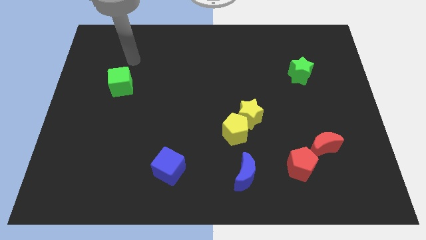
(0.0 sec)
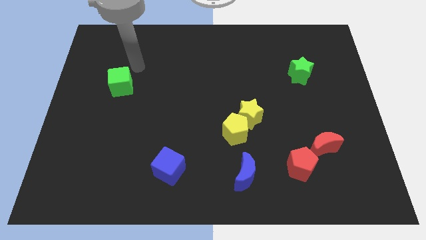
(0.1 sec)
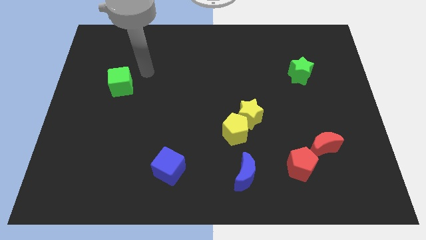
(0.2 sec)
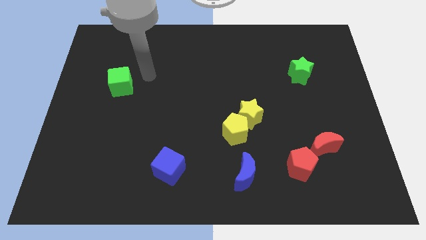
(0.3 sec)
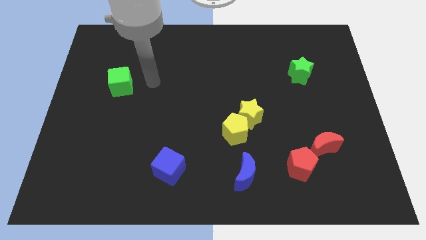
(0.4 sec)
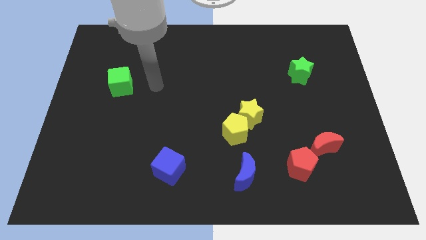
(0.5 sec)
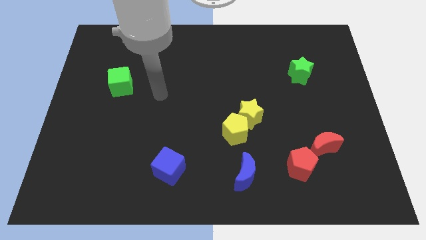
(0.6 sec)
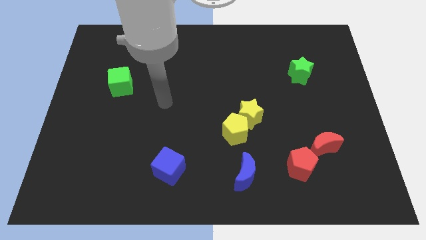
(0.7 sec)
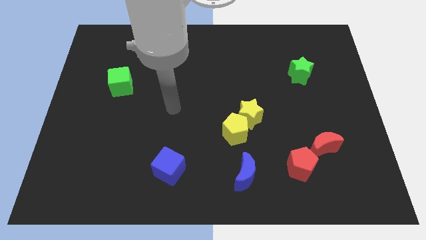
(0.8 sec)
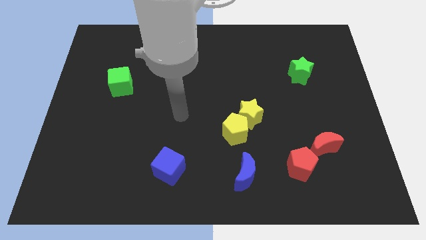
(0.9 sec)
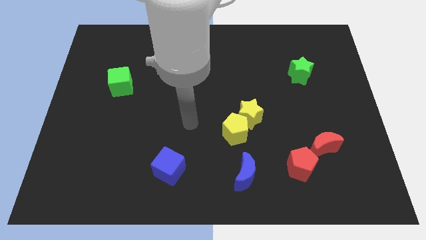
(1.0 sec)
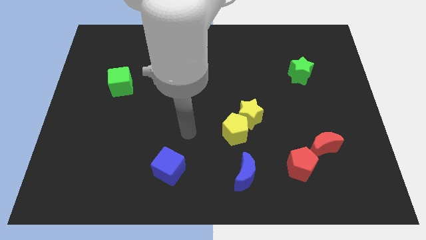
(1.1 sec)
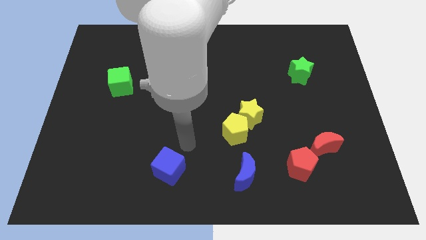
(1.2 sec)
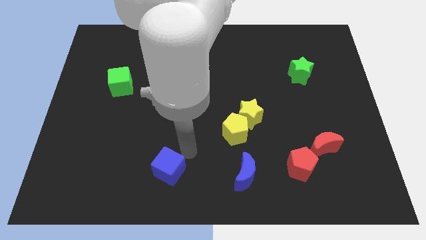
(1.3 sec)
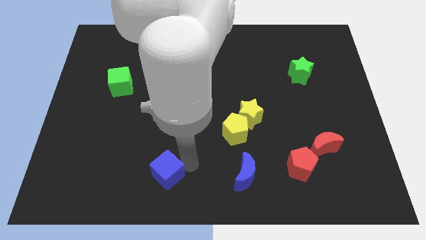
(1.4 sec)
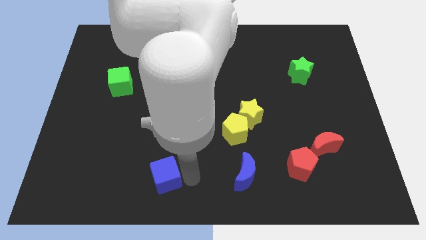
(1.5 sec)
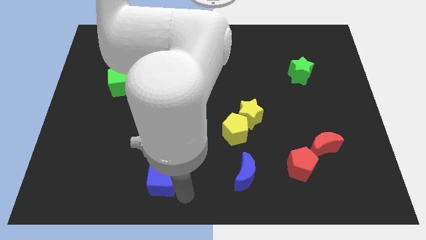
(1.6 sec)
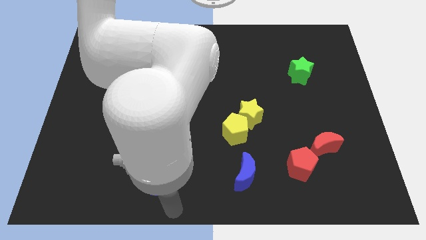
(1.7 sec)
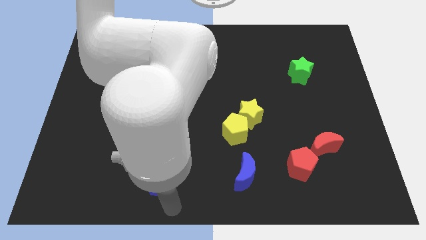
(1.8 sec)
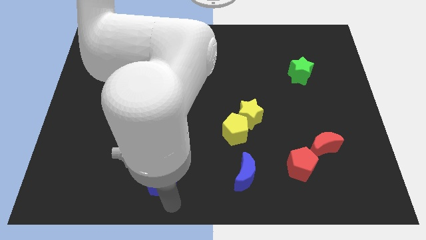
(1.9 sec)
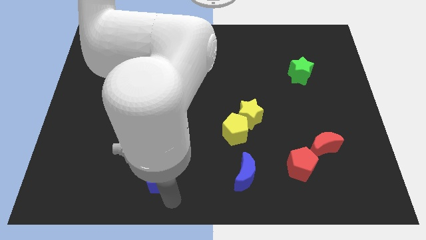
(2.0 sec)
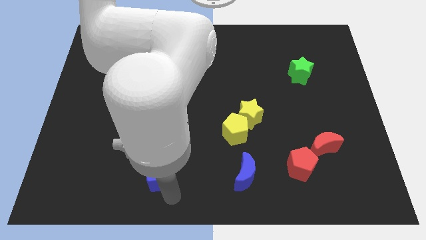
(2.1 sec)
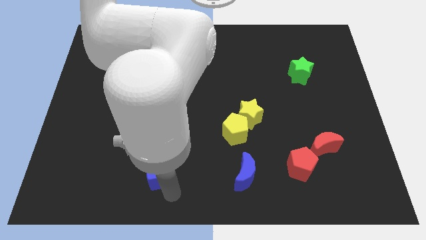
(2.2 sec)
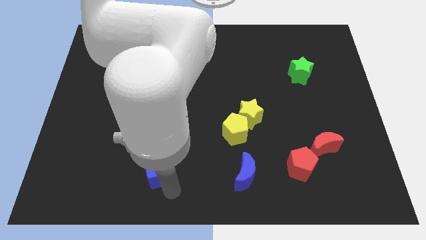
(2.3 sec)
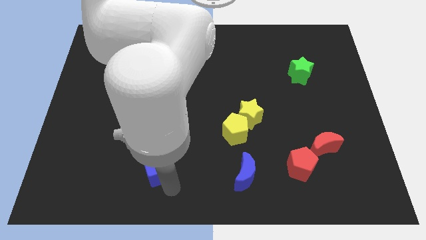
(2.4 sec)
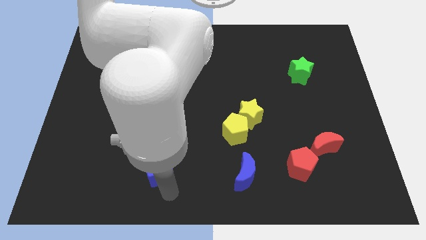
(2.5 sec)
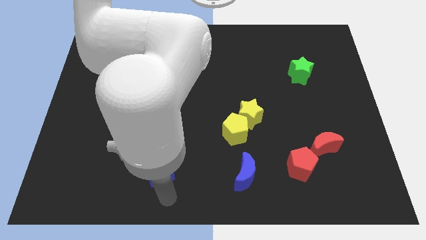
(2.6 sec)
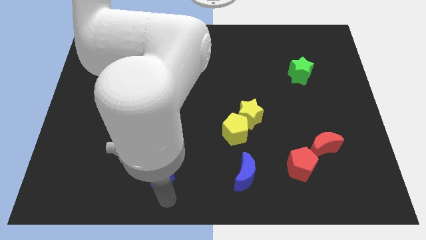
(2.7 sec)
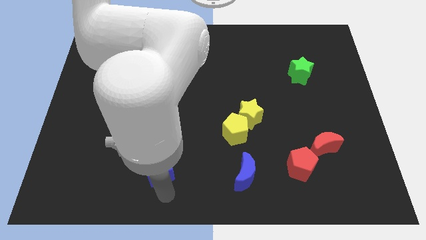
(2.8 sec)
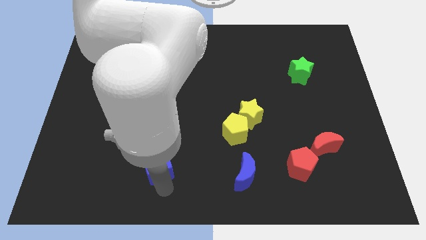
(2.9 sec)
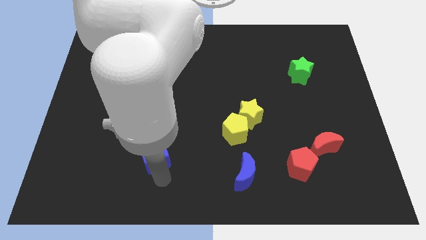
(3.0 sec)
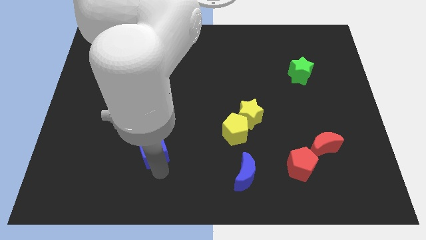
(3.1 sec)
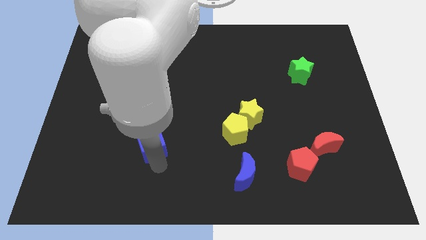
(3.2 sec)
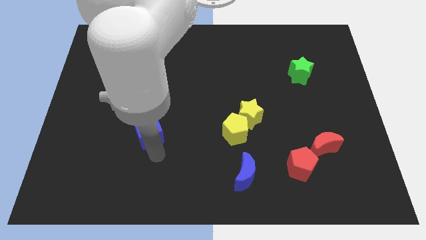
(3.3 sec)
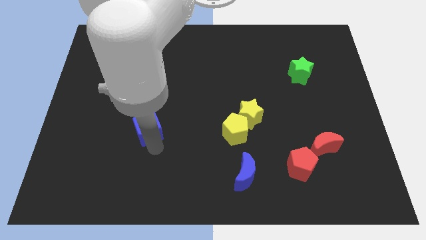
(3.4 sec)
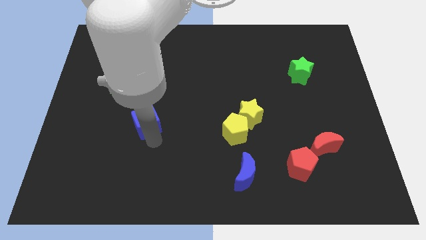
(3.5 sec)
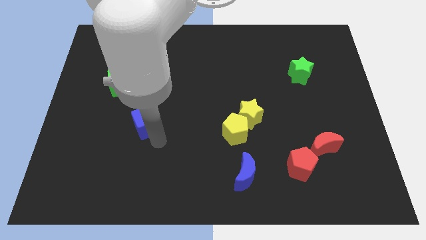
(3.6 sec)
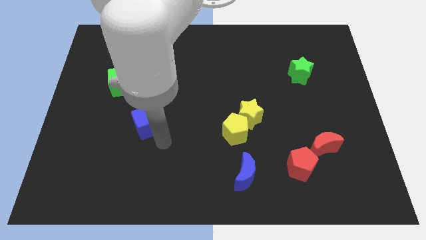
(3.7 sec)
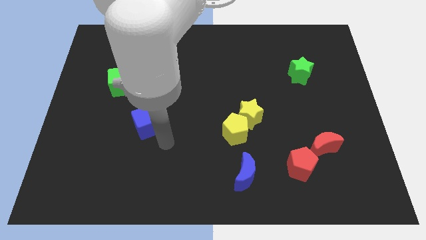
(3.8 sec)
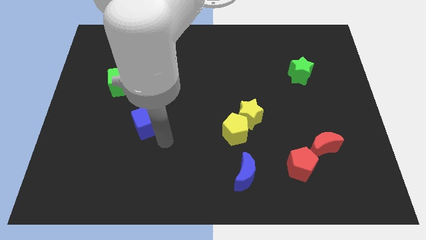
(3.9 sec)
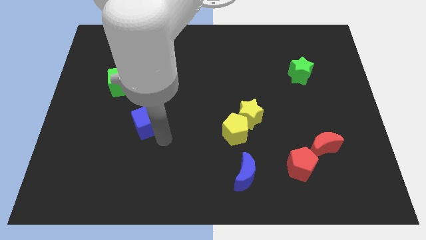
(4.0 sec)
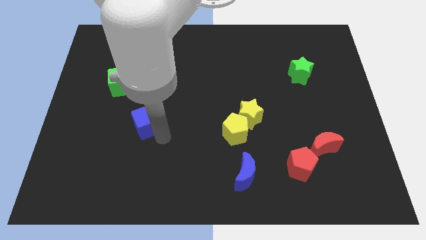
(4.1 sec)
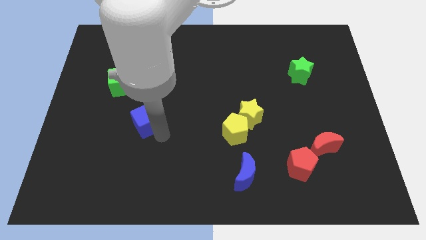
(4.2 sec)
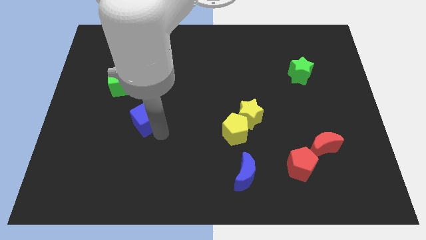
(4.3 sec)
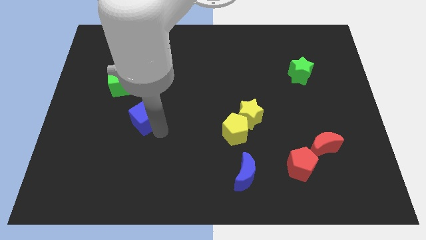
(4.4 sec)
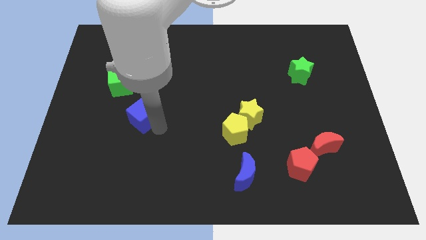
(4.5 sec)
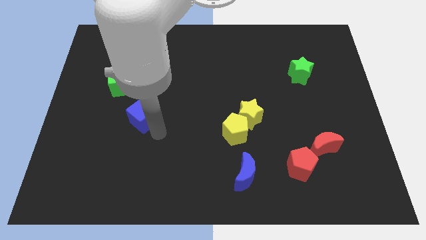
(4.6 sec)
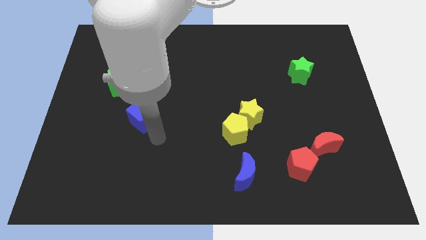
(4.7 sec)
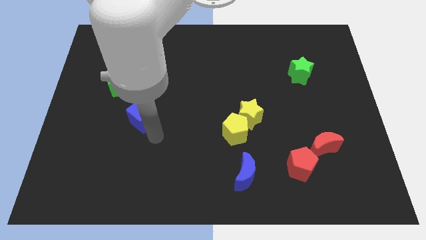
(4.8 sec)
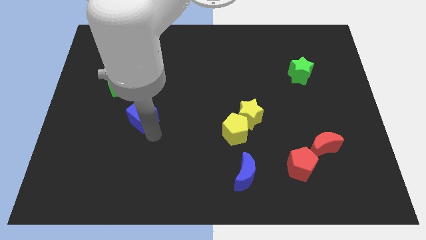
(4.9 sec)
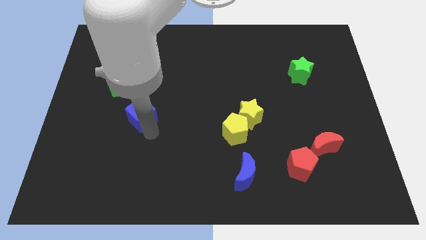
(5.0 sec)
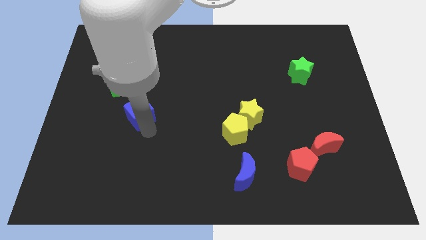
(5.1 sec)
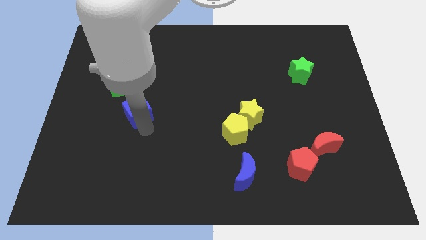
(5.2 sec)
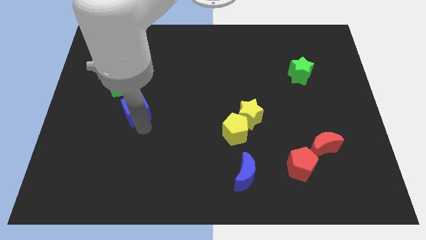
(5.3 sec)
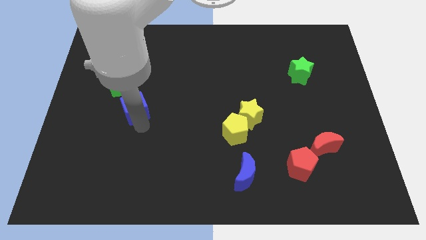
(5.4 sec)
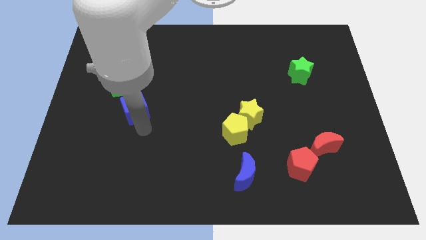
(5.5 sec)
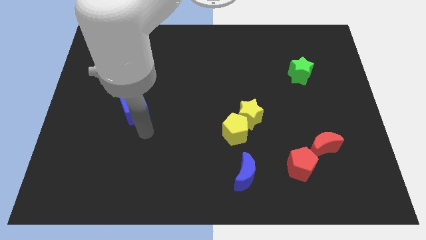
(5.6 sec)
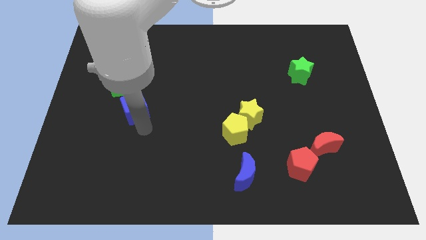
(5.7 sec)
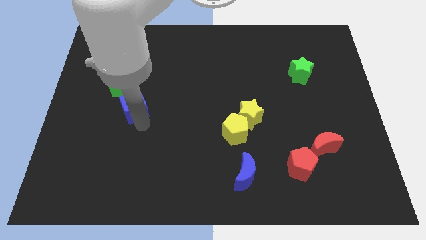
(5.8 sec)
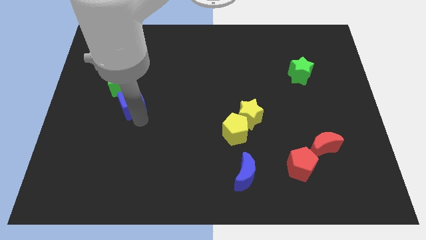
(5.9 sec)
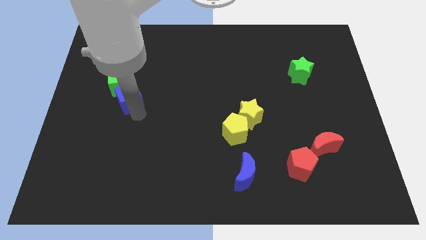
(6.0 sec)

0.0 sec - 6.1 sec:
move the blue cube next to the green cube

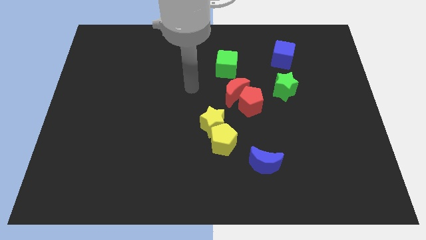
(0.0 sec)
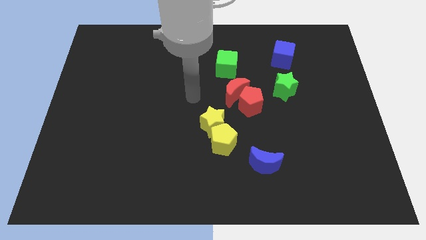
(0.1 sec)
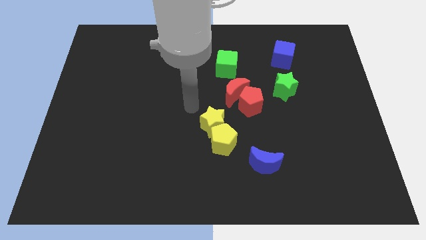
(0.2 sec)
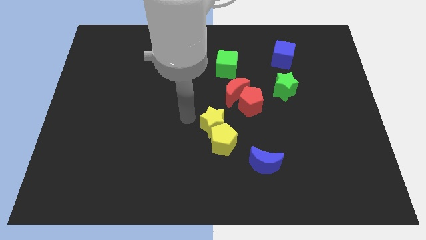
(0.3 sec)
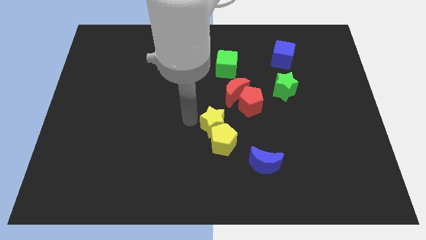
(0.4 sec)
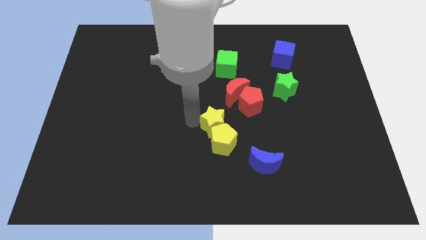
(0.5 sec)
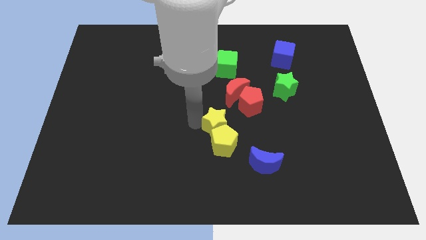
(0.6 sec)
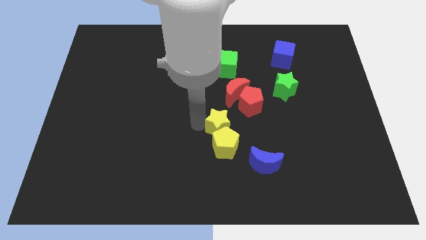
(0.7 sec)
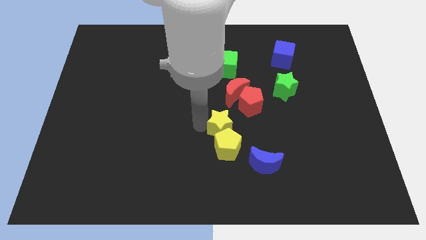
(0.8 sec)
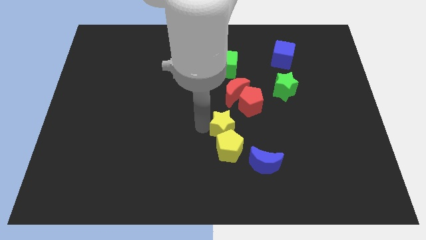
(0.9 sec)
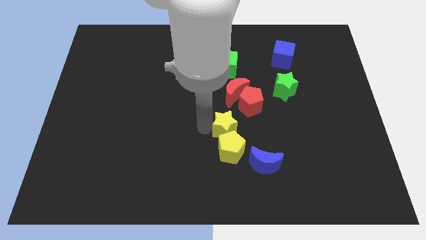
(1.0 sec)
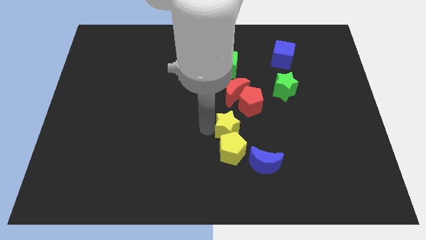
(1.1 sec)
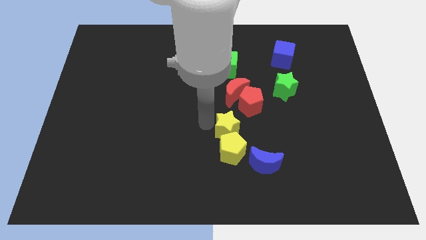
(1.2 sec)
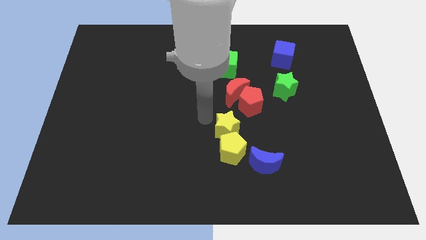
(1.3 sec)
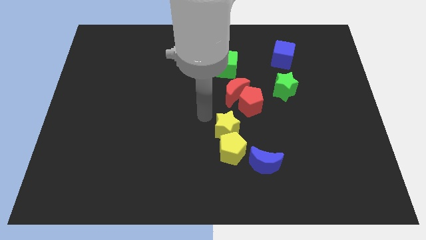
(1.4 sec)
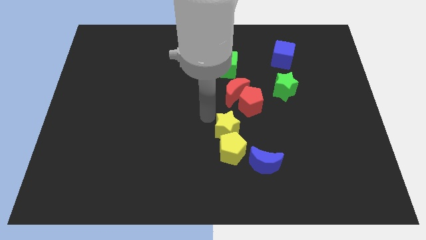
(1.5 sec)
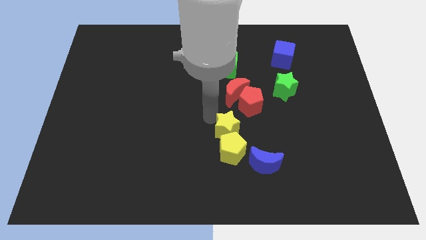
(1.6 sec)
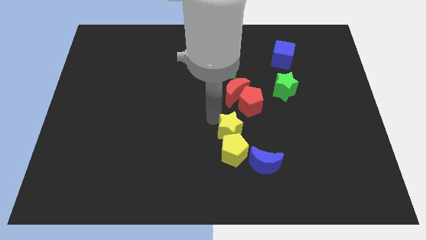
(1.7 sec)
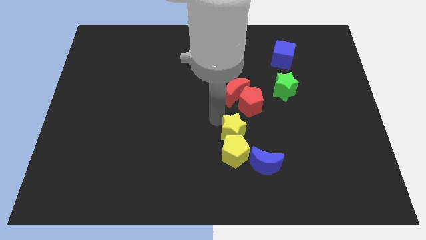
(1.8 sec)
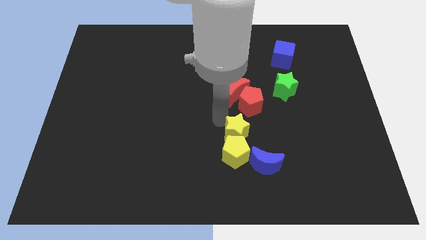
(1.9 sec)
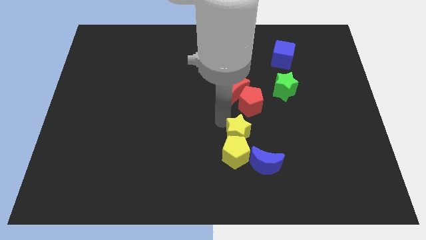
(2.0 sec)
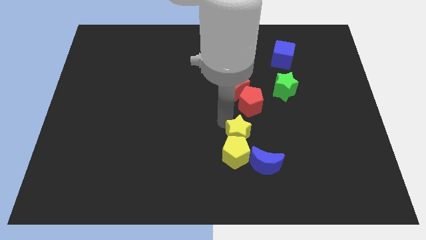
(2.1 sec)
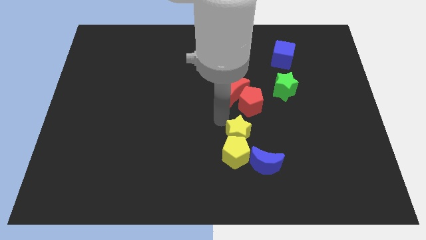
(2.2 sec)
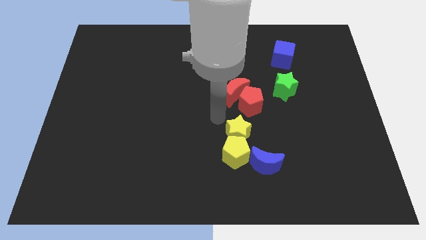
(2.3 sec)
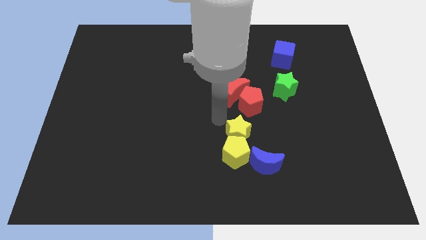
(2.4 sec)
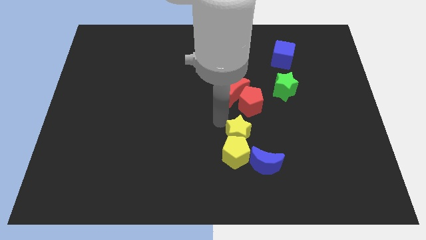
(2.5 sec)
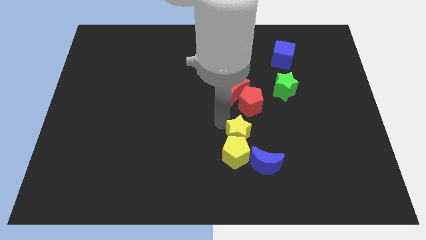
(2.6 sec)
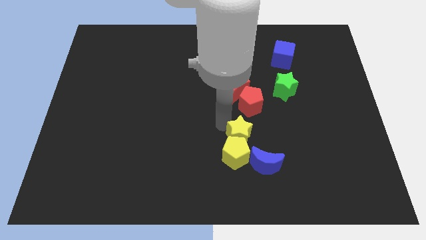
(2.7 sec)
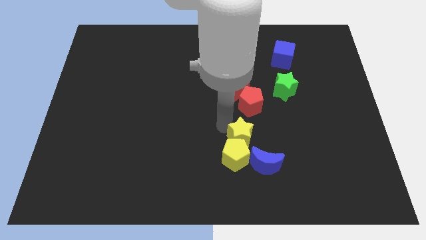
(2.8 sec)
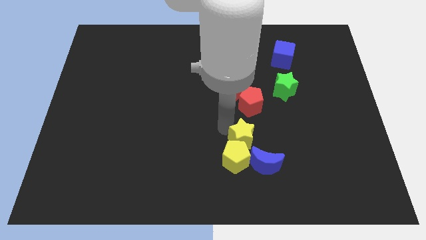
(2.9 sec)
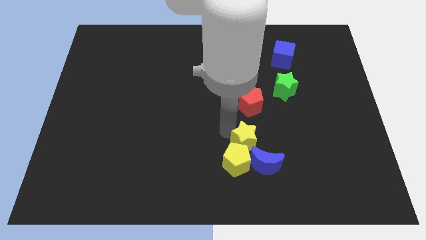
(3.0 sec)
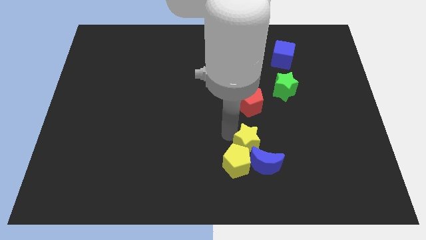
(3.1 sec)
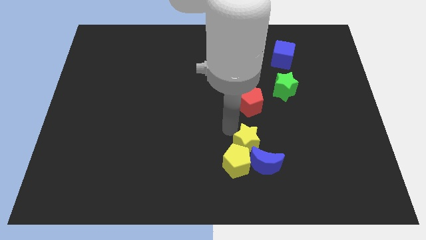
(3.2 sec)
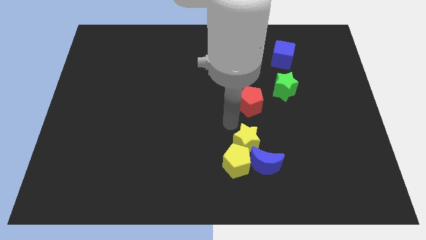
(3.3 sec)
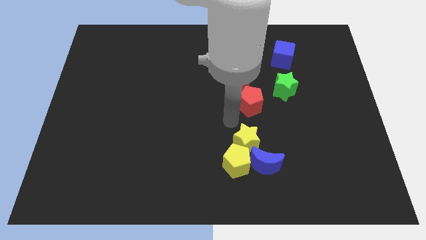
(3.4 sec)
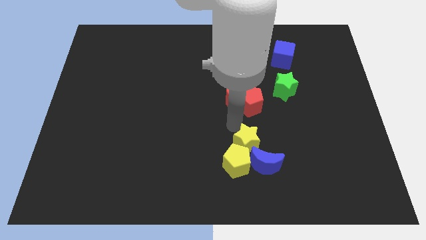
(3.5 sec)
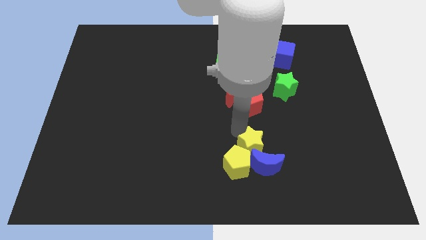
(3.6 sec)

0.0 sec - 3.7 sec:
put the yellow star to the blue moon
